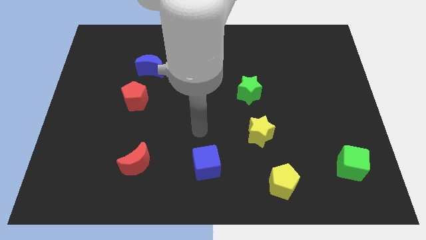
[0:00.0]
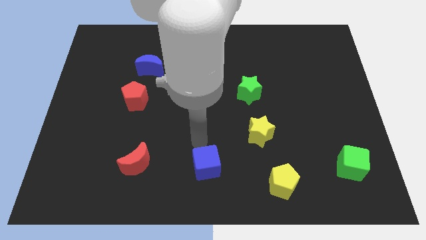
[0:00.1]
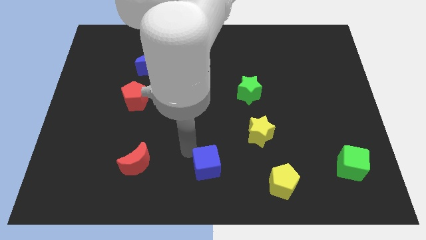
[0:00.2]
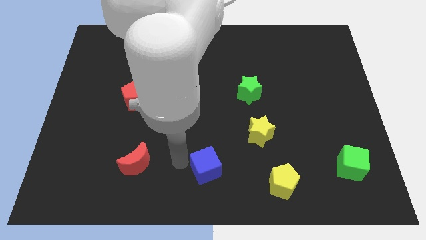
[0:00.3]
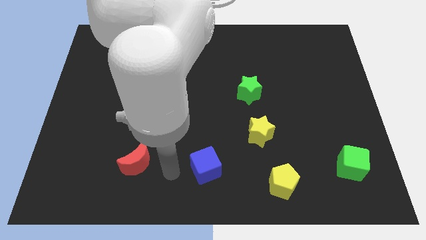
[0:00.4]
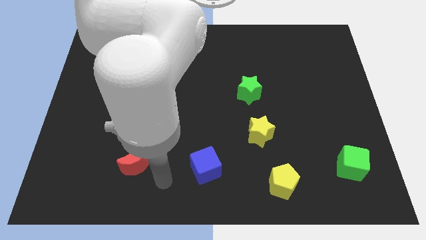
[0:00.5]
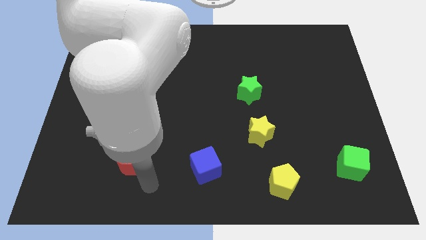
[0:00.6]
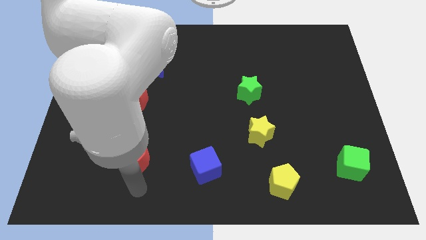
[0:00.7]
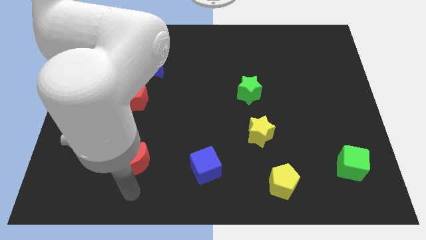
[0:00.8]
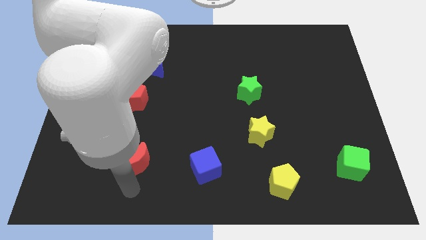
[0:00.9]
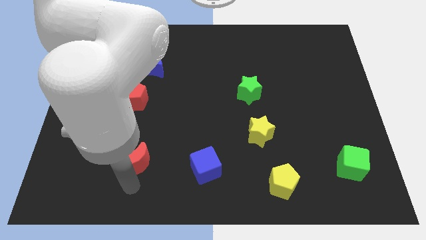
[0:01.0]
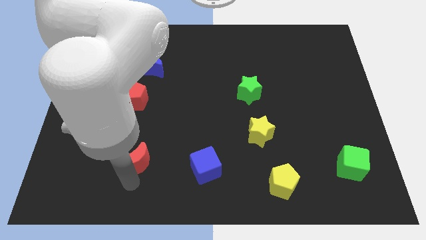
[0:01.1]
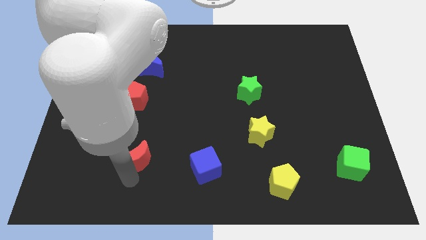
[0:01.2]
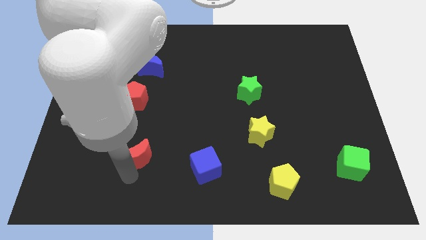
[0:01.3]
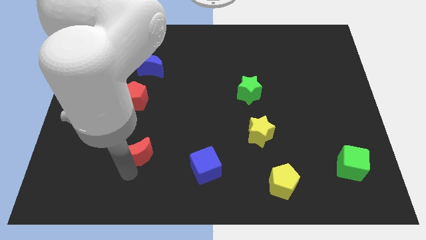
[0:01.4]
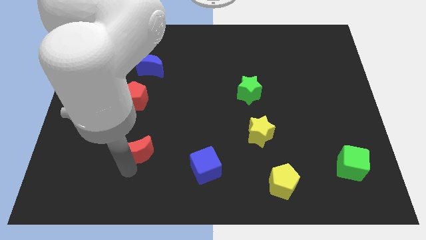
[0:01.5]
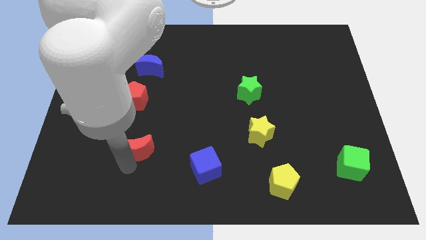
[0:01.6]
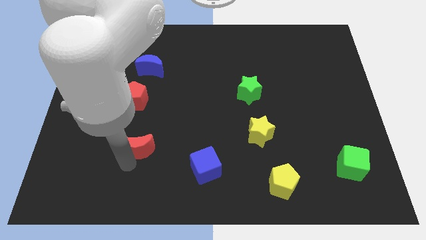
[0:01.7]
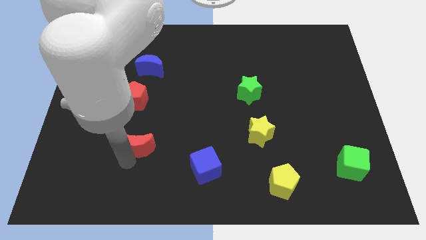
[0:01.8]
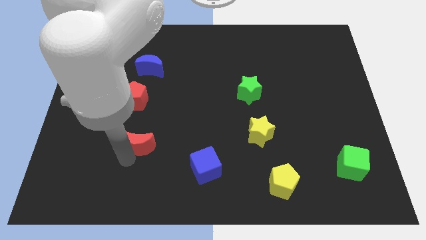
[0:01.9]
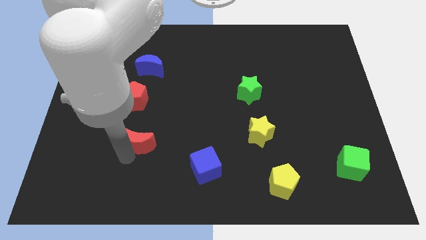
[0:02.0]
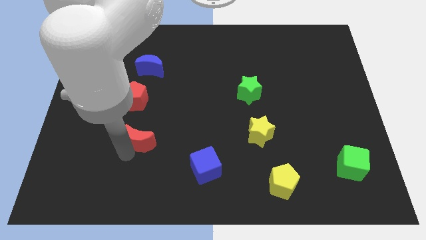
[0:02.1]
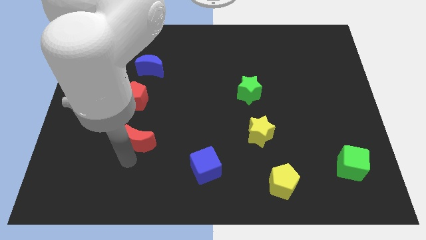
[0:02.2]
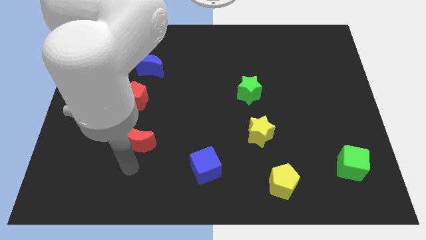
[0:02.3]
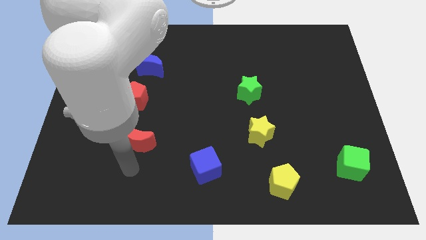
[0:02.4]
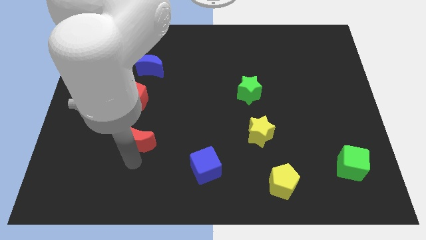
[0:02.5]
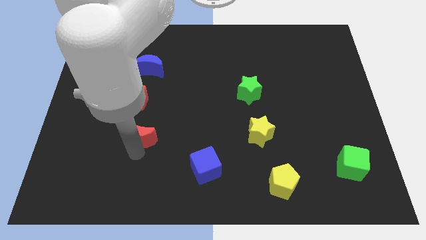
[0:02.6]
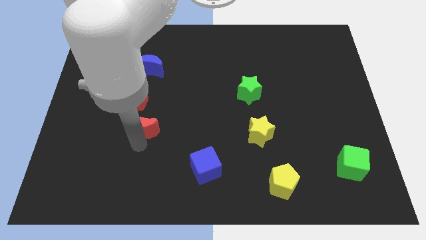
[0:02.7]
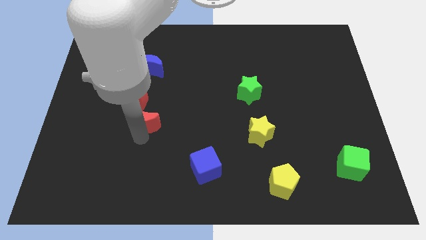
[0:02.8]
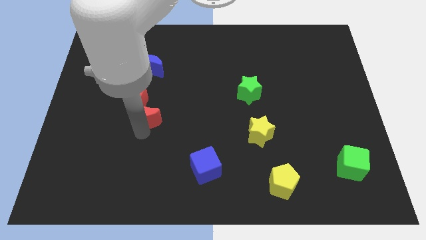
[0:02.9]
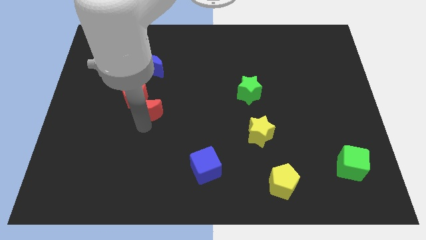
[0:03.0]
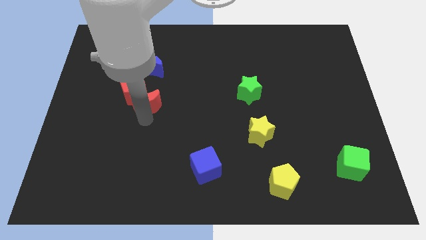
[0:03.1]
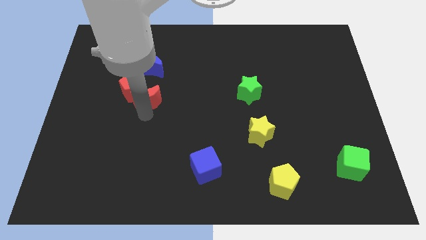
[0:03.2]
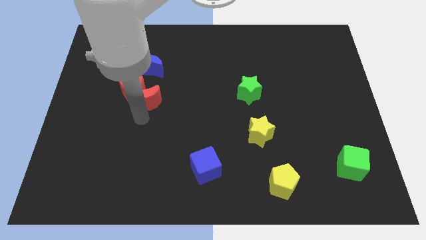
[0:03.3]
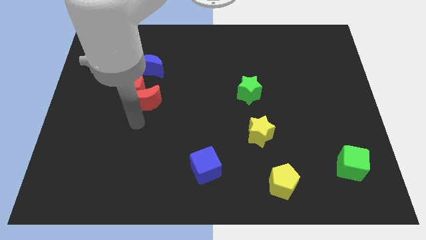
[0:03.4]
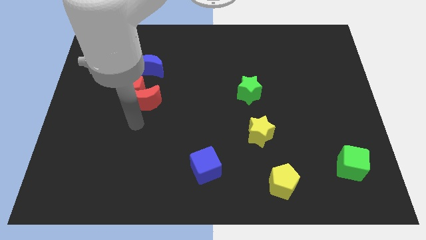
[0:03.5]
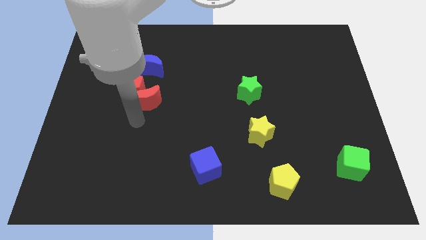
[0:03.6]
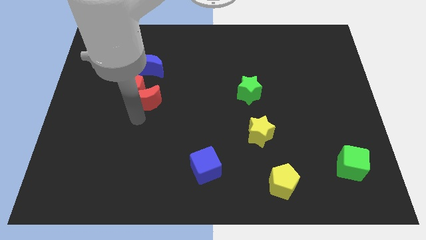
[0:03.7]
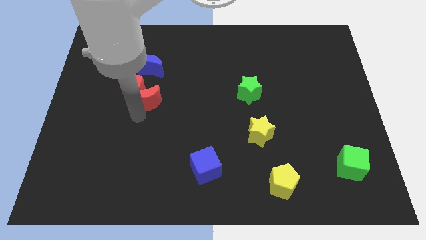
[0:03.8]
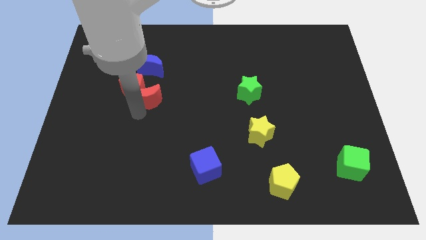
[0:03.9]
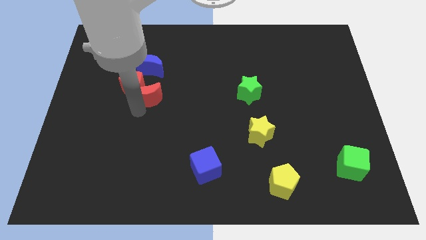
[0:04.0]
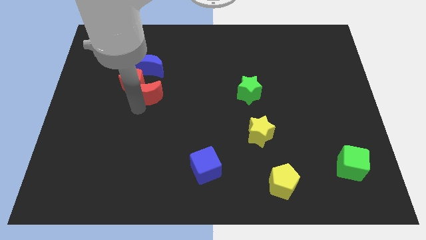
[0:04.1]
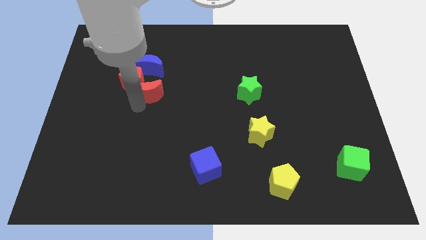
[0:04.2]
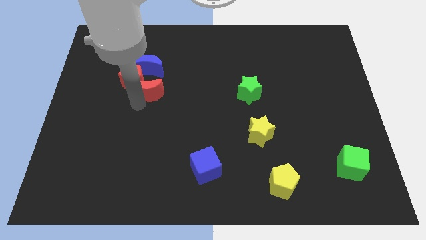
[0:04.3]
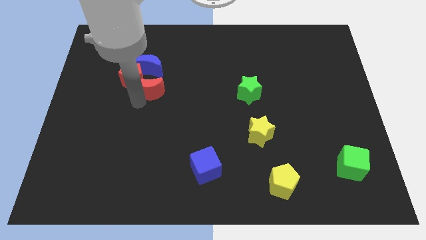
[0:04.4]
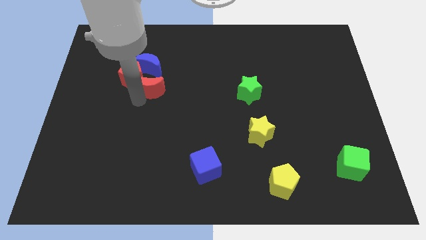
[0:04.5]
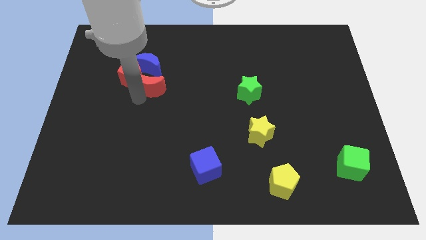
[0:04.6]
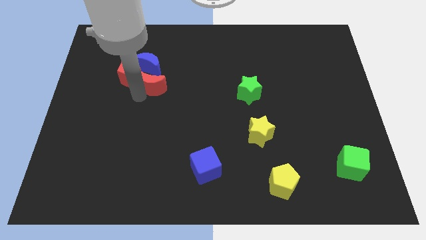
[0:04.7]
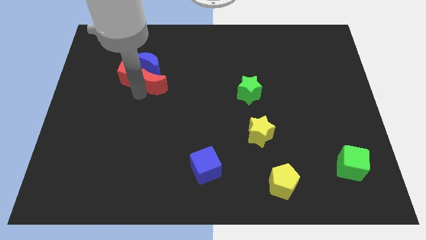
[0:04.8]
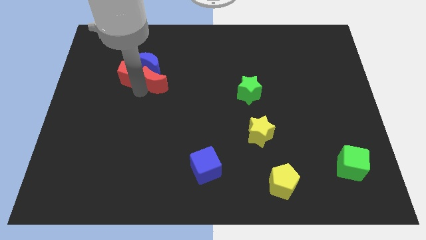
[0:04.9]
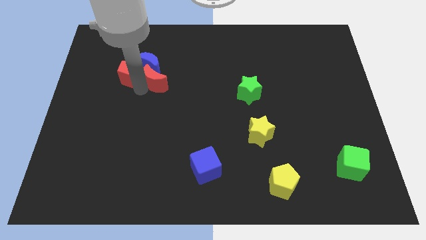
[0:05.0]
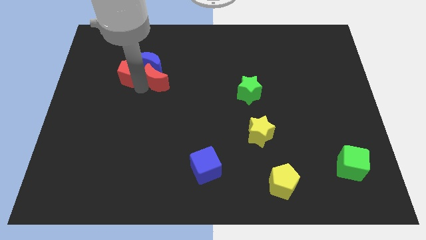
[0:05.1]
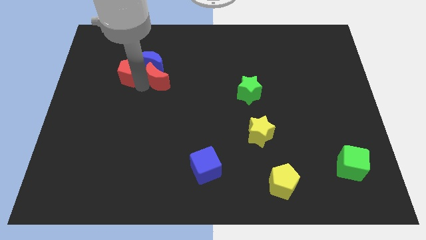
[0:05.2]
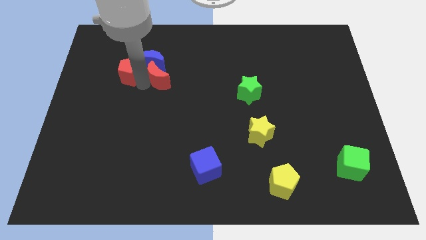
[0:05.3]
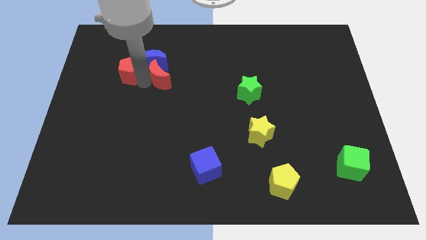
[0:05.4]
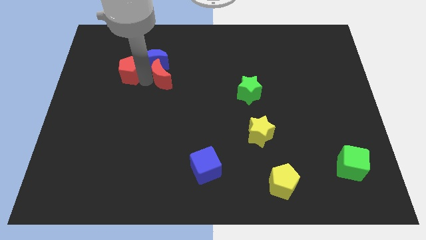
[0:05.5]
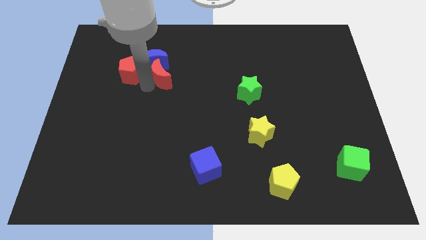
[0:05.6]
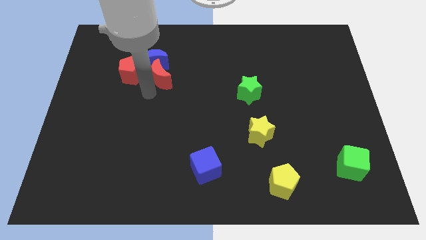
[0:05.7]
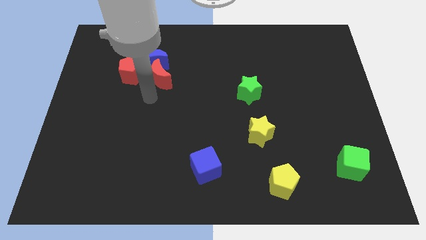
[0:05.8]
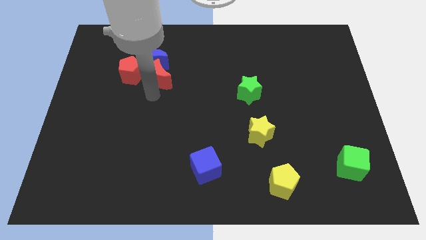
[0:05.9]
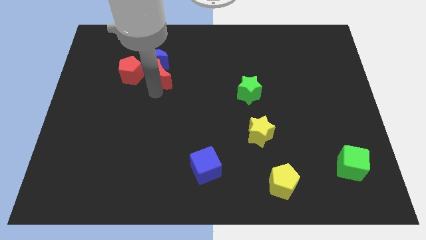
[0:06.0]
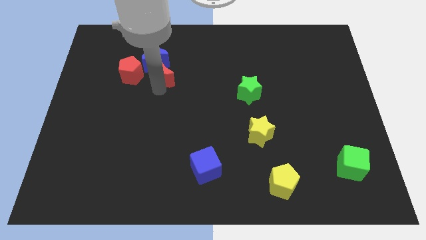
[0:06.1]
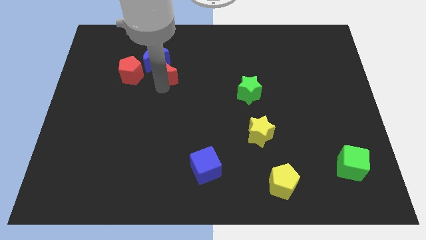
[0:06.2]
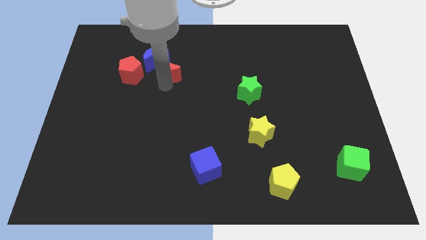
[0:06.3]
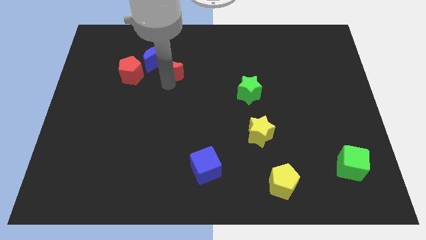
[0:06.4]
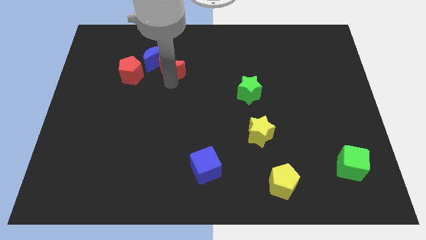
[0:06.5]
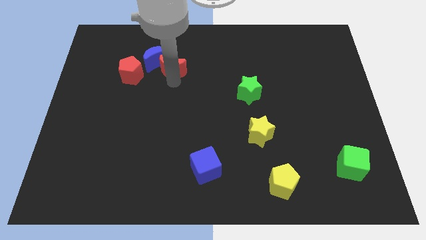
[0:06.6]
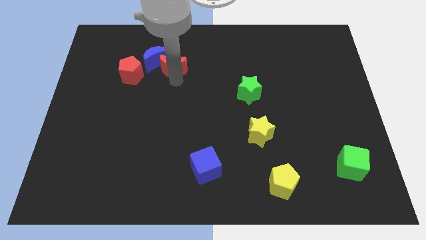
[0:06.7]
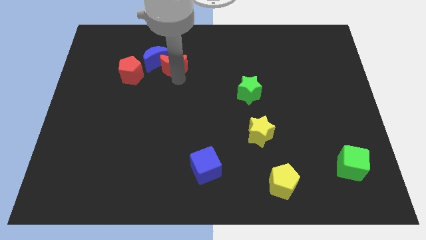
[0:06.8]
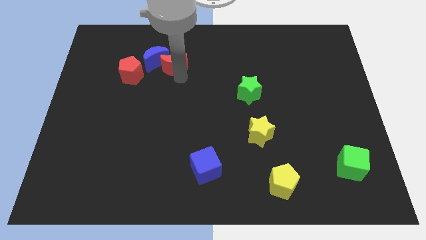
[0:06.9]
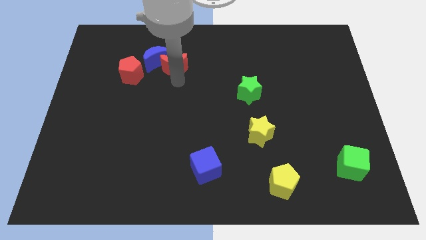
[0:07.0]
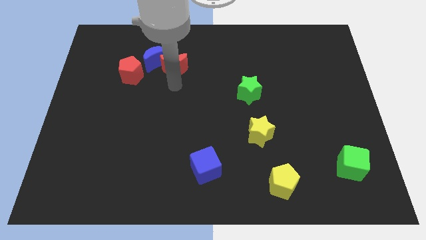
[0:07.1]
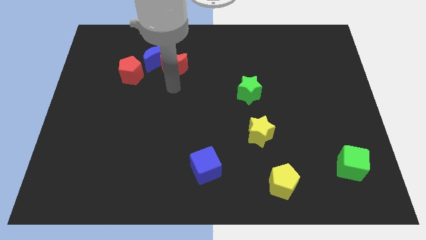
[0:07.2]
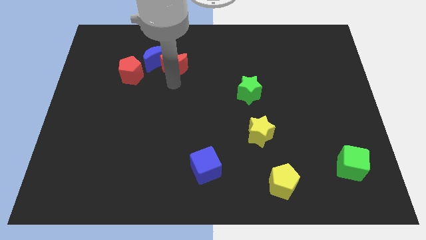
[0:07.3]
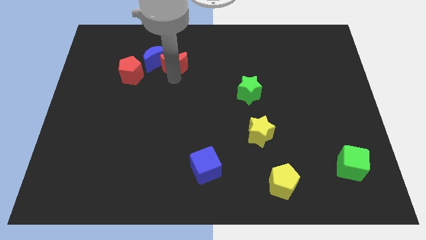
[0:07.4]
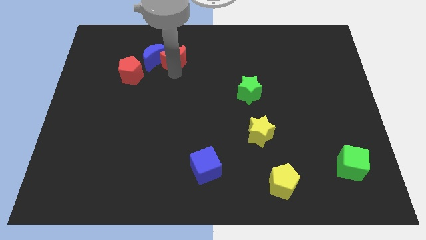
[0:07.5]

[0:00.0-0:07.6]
put the red moon to the top right side of the blue moon
